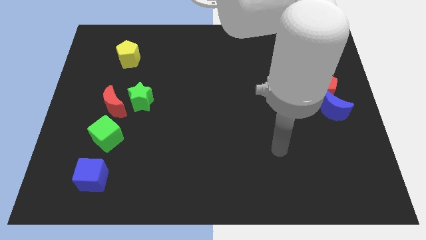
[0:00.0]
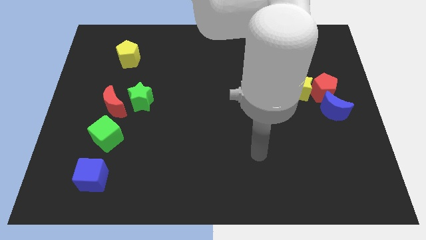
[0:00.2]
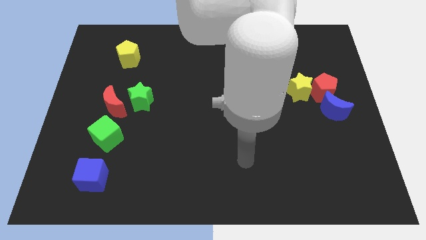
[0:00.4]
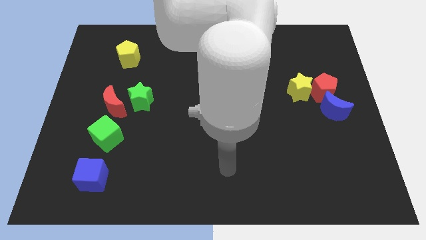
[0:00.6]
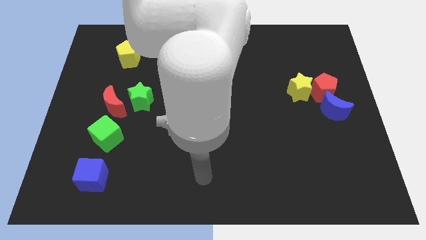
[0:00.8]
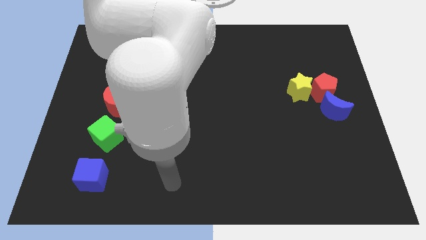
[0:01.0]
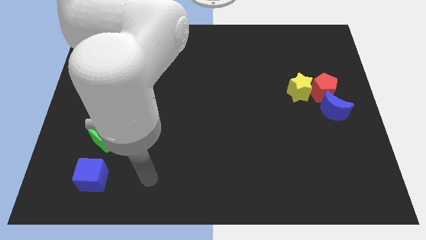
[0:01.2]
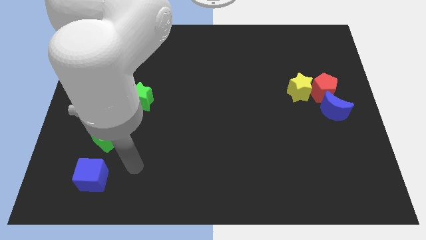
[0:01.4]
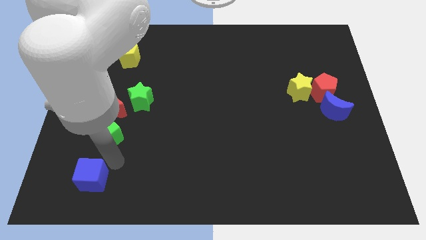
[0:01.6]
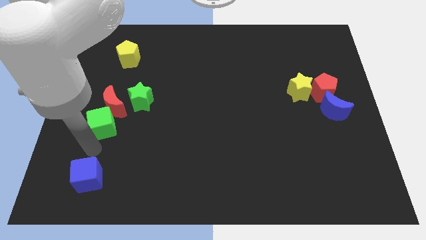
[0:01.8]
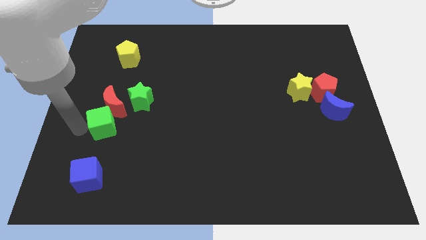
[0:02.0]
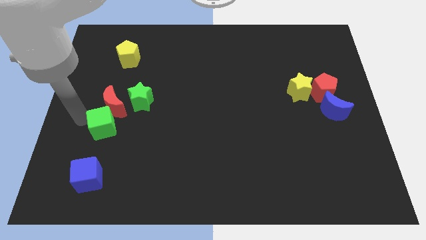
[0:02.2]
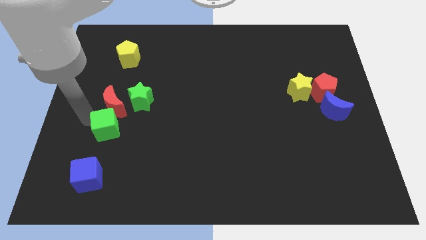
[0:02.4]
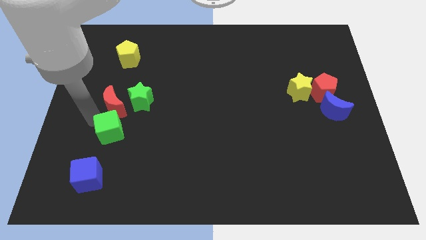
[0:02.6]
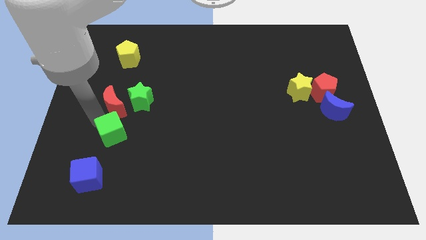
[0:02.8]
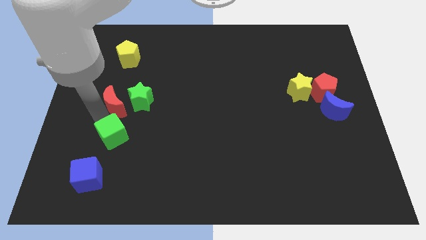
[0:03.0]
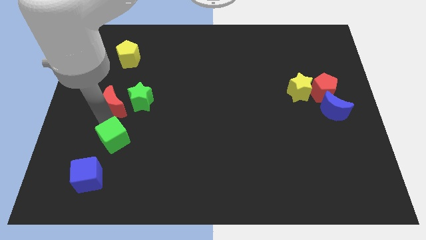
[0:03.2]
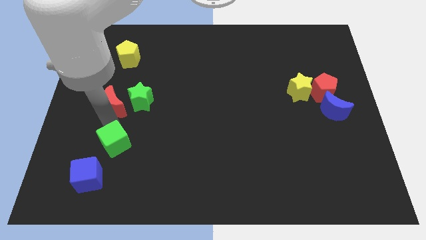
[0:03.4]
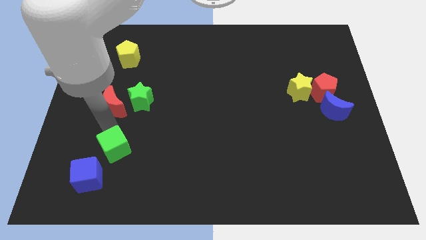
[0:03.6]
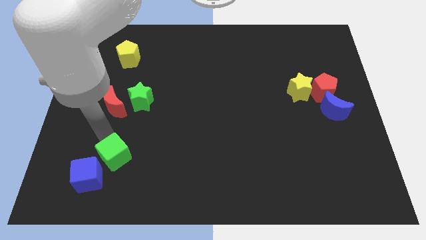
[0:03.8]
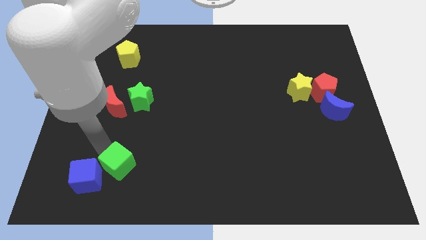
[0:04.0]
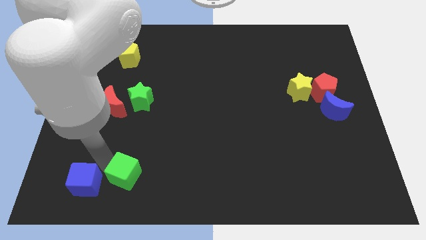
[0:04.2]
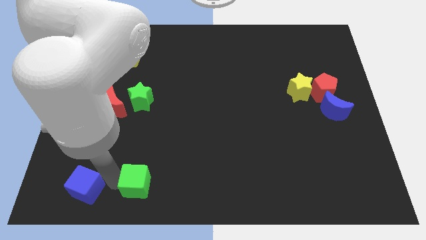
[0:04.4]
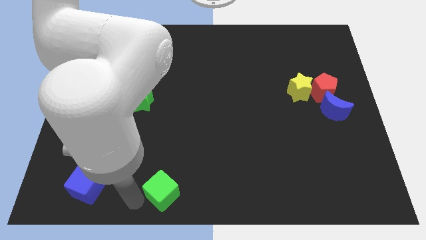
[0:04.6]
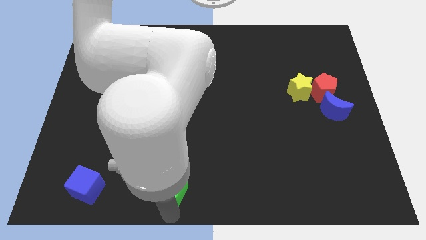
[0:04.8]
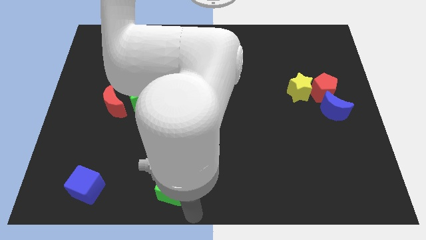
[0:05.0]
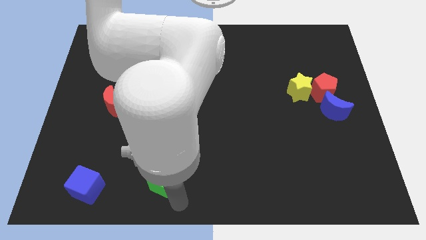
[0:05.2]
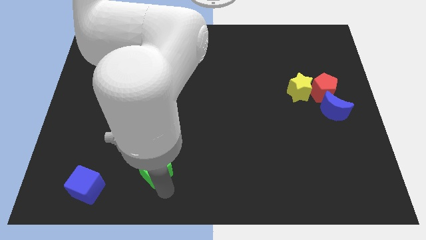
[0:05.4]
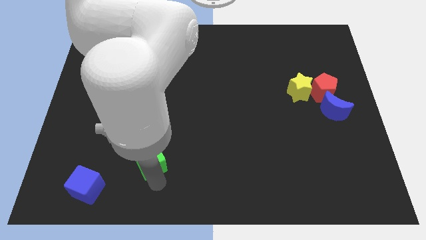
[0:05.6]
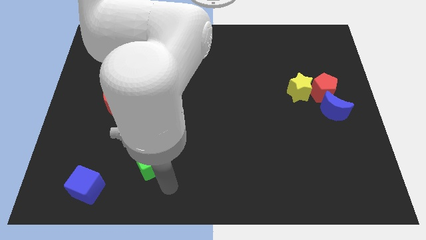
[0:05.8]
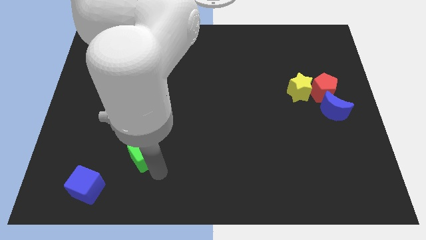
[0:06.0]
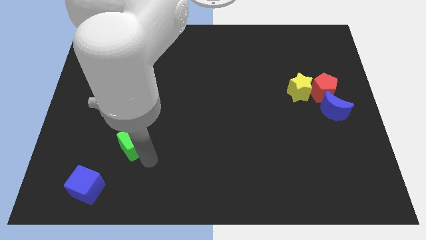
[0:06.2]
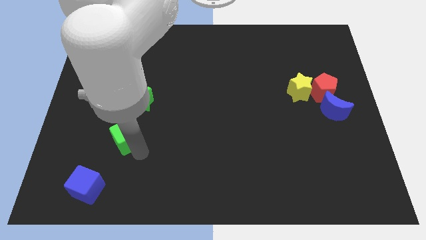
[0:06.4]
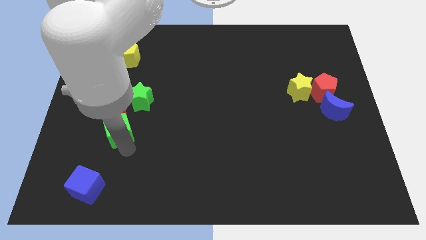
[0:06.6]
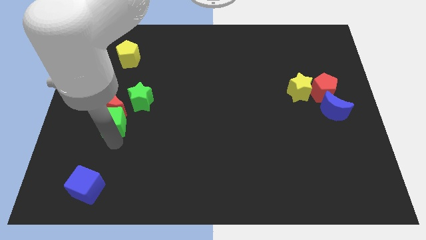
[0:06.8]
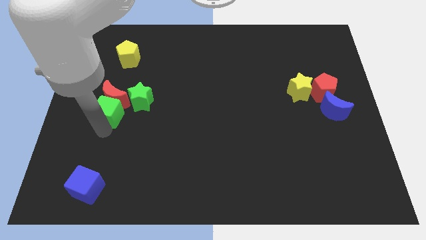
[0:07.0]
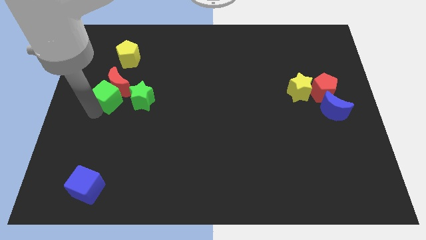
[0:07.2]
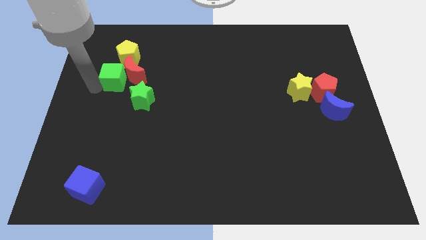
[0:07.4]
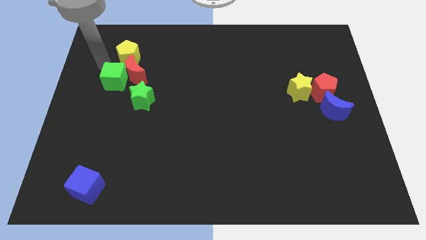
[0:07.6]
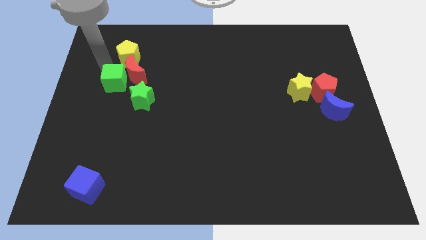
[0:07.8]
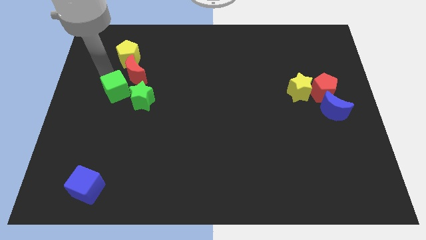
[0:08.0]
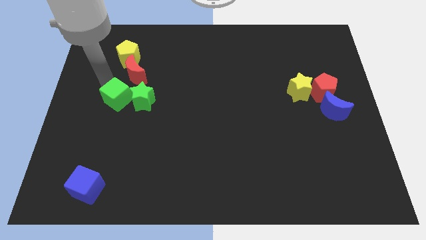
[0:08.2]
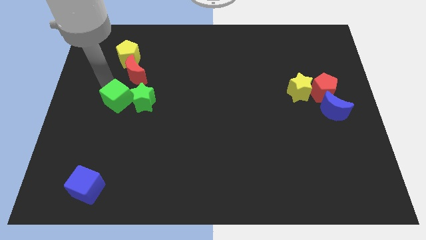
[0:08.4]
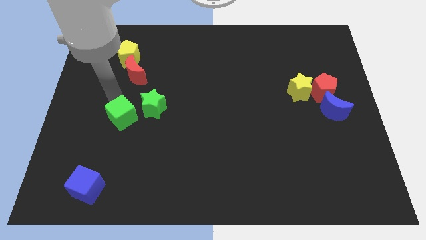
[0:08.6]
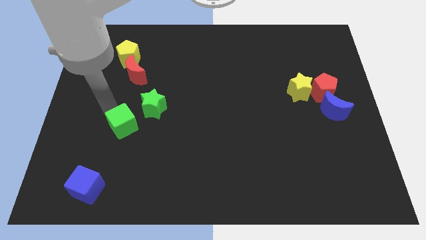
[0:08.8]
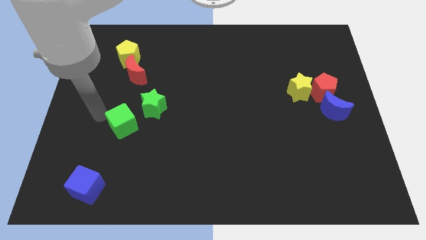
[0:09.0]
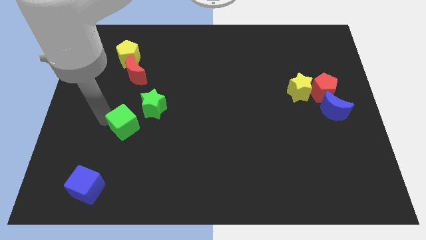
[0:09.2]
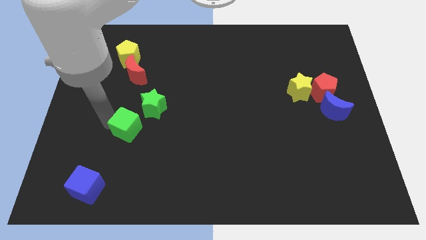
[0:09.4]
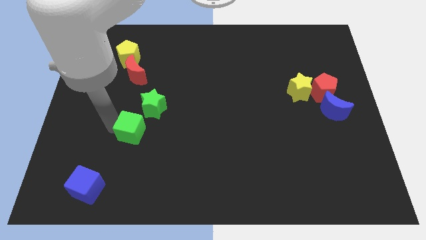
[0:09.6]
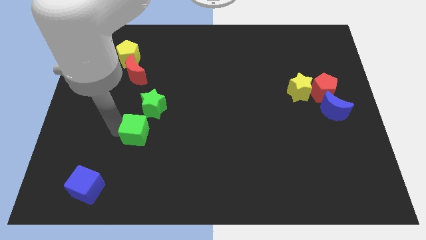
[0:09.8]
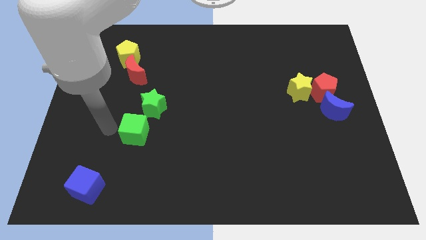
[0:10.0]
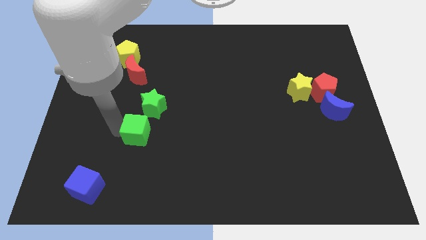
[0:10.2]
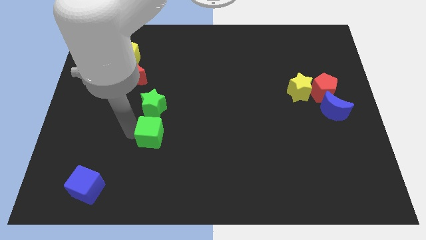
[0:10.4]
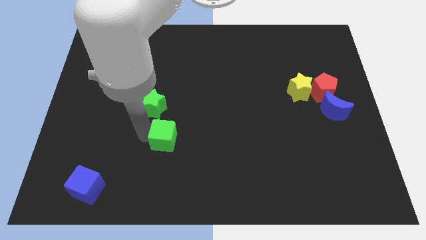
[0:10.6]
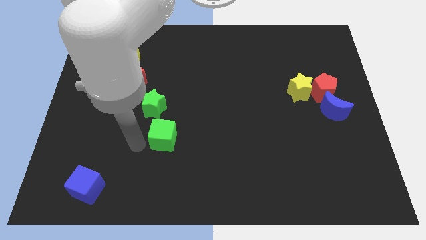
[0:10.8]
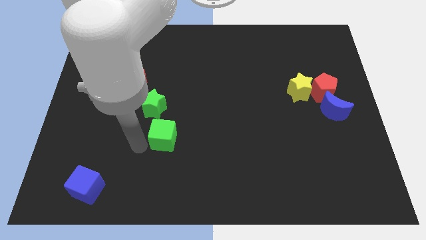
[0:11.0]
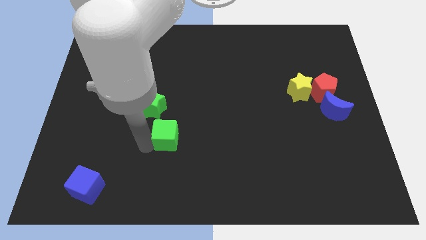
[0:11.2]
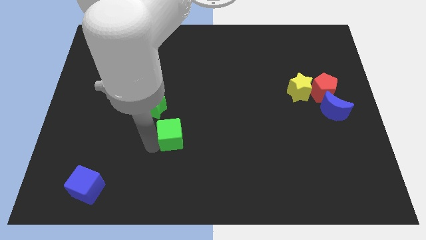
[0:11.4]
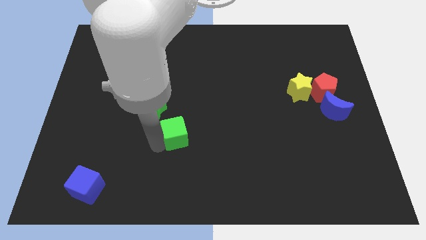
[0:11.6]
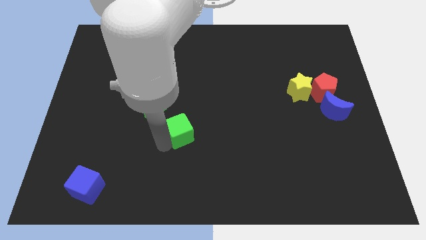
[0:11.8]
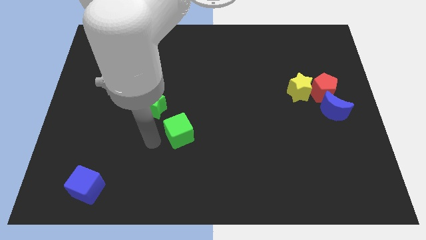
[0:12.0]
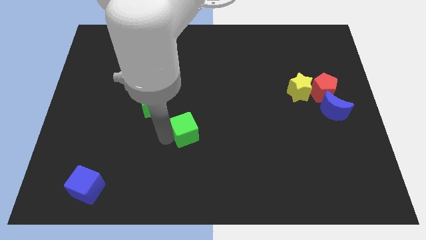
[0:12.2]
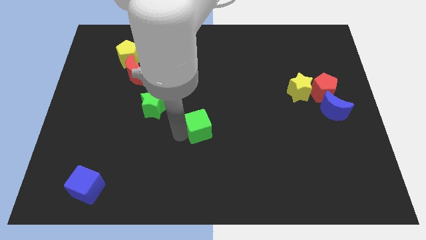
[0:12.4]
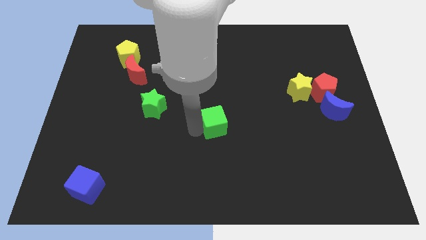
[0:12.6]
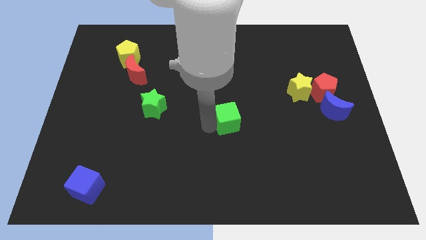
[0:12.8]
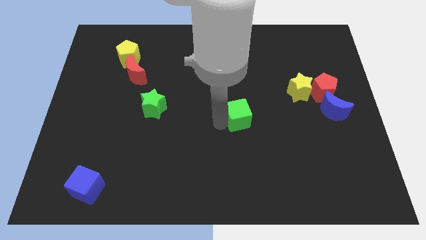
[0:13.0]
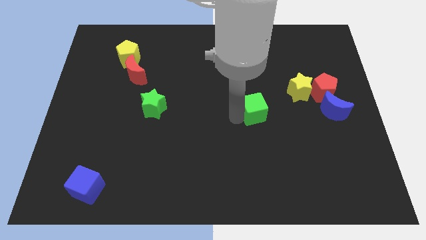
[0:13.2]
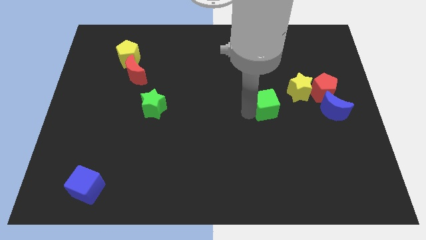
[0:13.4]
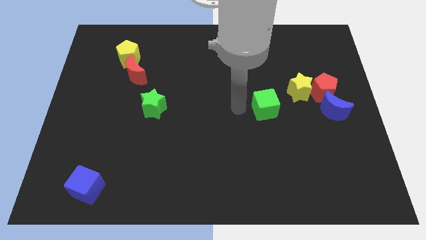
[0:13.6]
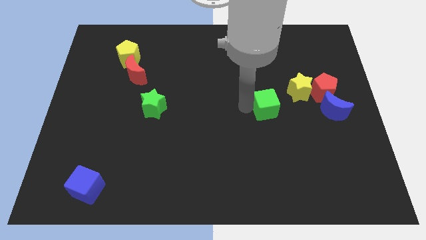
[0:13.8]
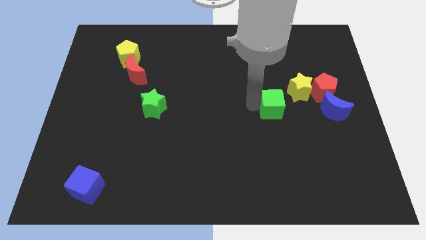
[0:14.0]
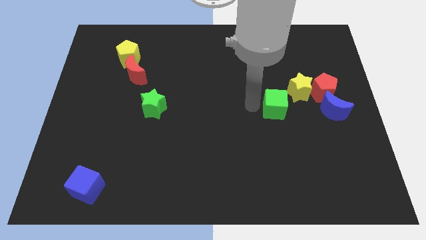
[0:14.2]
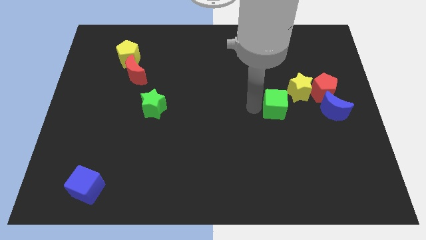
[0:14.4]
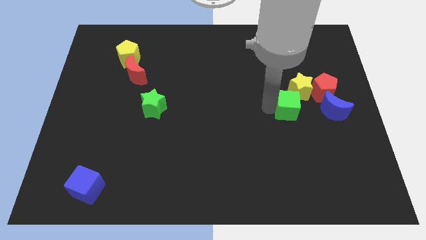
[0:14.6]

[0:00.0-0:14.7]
put the green cube diagonally down and to the left of the red pentagon
